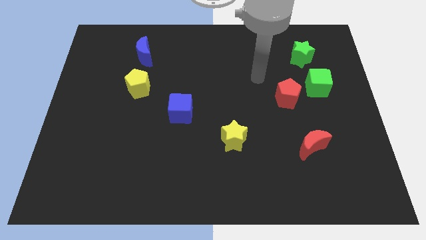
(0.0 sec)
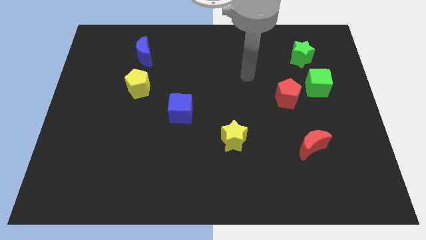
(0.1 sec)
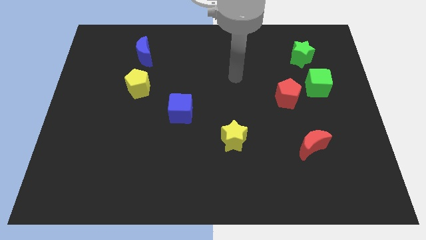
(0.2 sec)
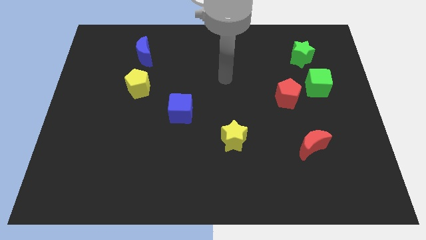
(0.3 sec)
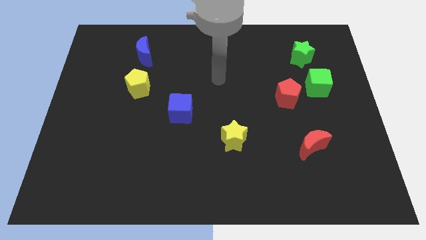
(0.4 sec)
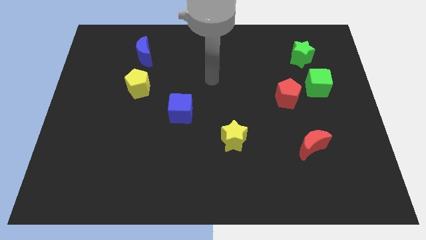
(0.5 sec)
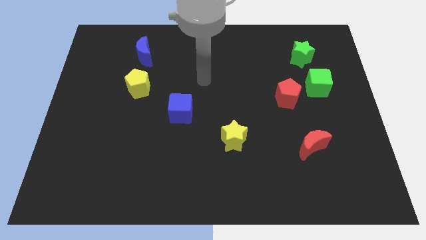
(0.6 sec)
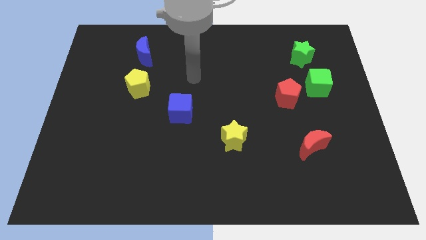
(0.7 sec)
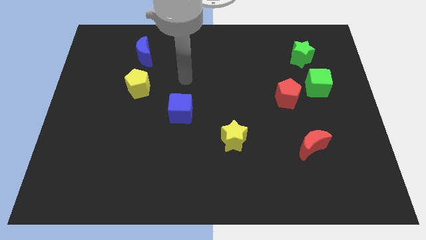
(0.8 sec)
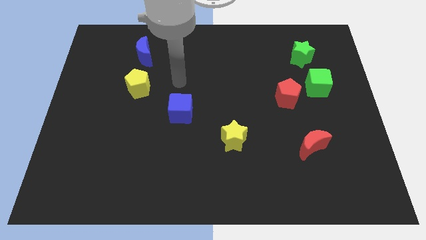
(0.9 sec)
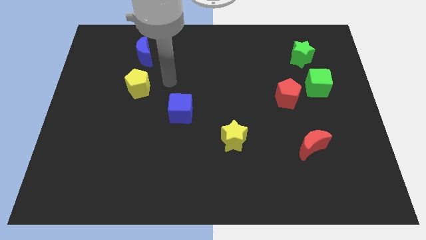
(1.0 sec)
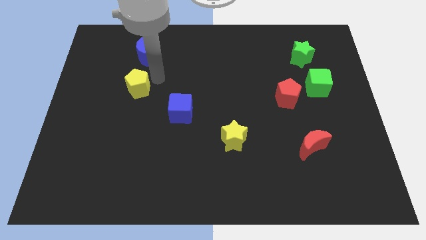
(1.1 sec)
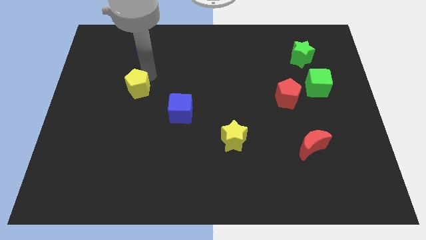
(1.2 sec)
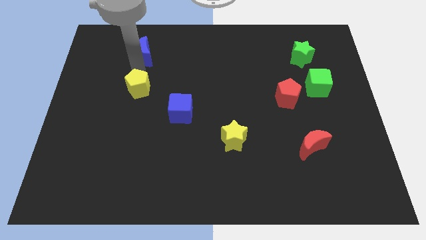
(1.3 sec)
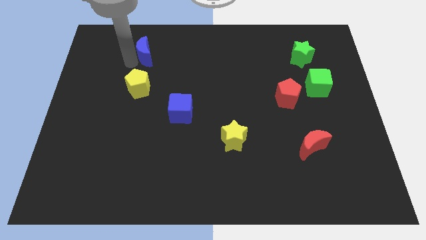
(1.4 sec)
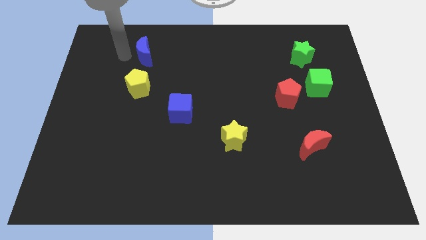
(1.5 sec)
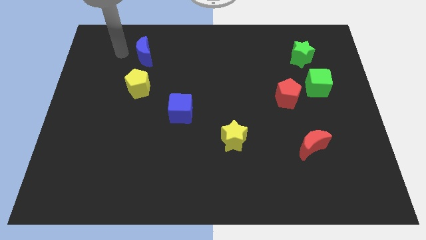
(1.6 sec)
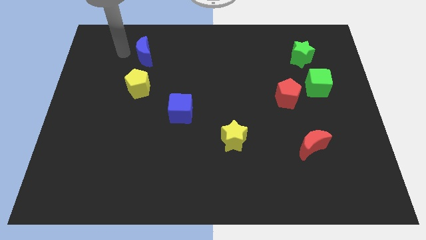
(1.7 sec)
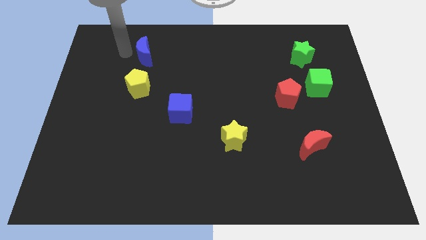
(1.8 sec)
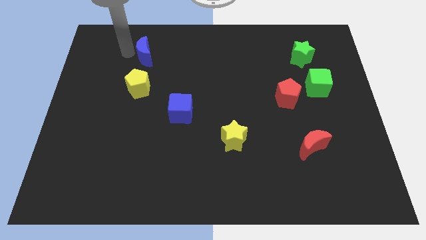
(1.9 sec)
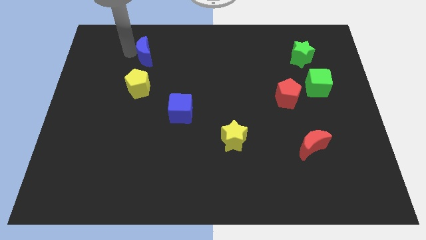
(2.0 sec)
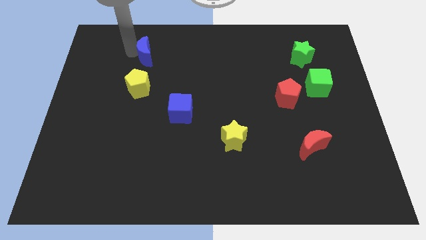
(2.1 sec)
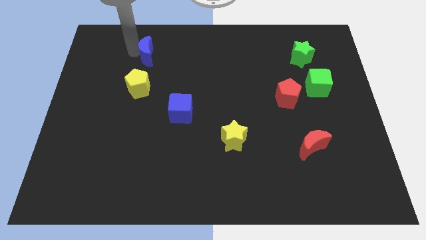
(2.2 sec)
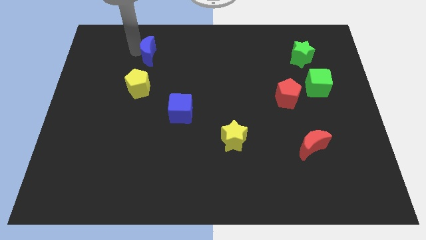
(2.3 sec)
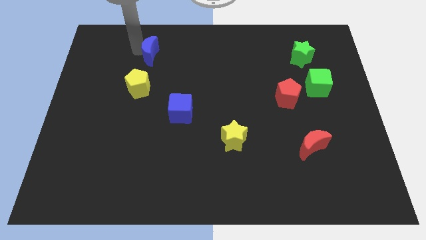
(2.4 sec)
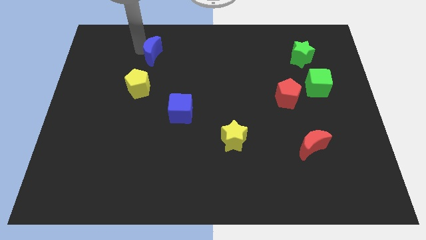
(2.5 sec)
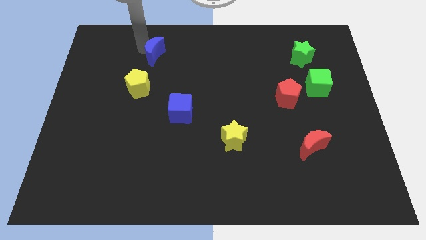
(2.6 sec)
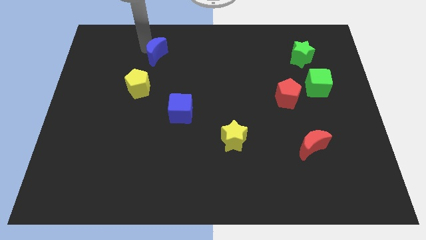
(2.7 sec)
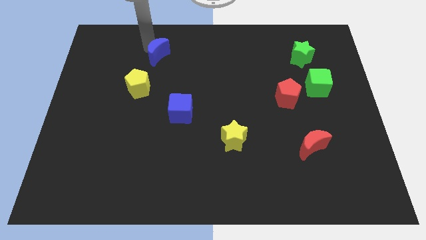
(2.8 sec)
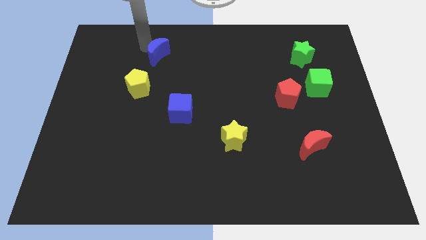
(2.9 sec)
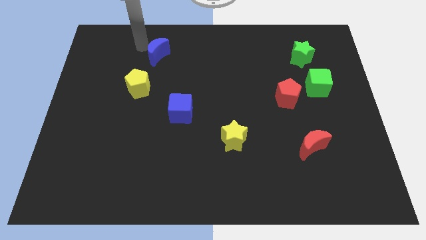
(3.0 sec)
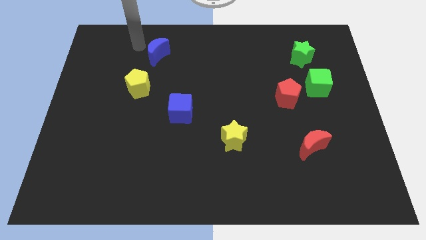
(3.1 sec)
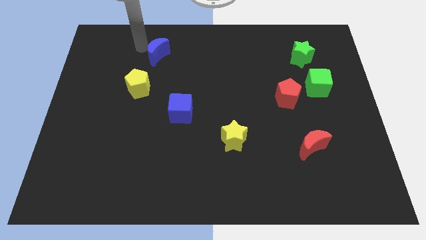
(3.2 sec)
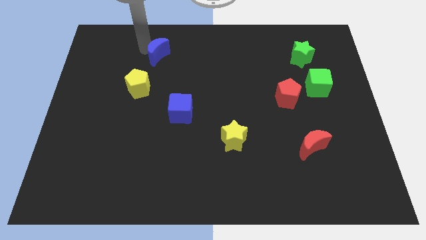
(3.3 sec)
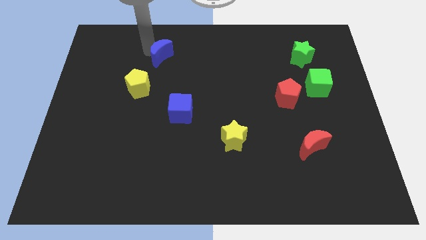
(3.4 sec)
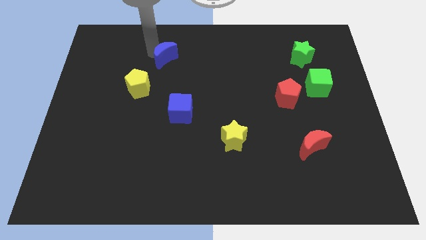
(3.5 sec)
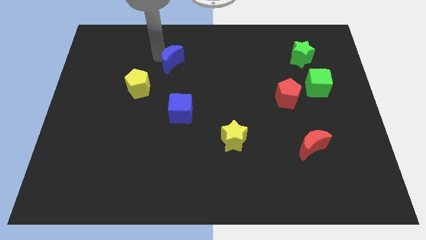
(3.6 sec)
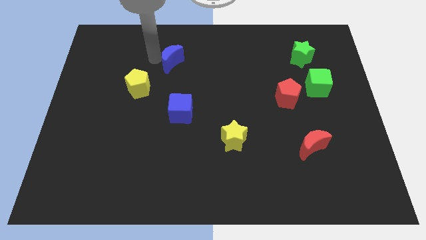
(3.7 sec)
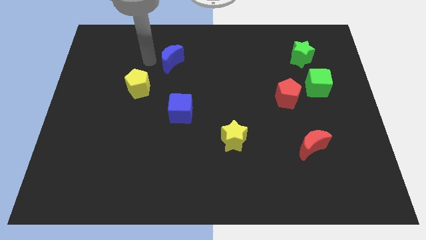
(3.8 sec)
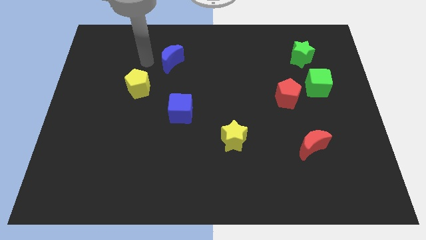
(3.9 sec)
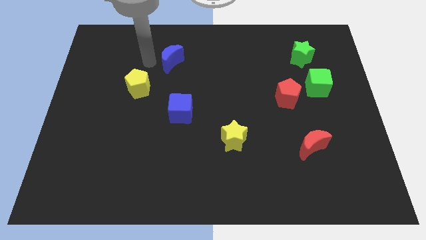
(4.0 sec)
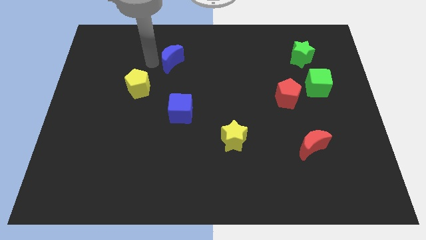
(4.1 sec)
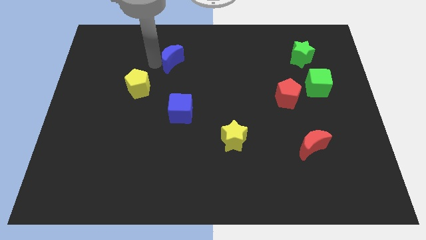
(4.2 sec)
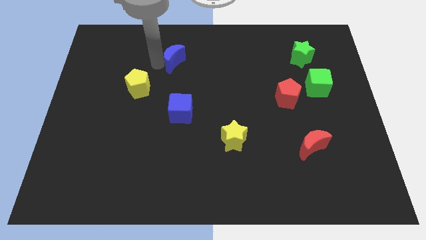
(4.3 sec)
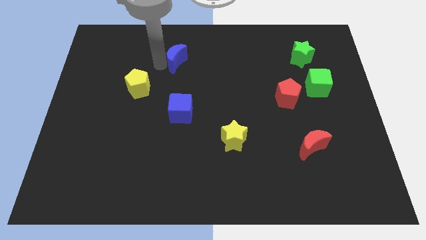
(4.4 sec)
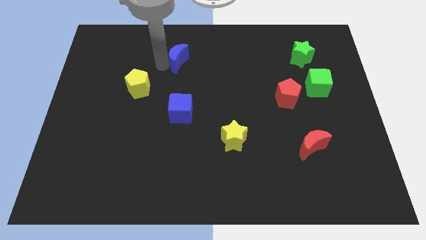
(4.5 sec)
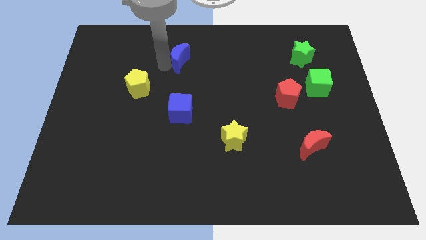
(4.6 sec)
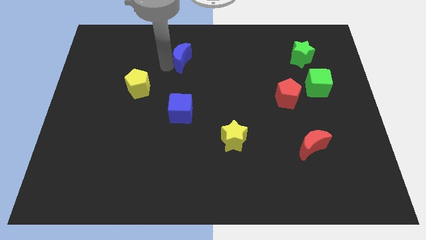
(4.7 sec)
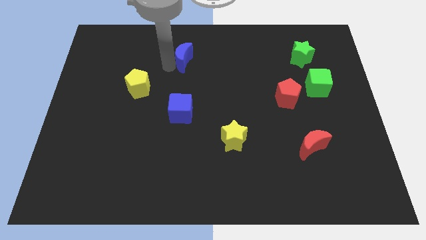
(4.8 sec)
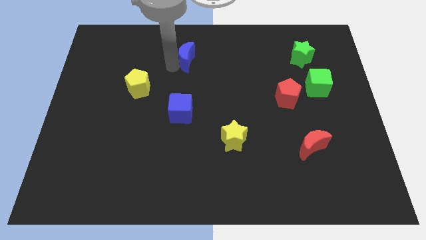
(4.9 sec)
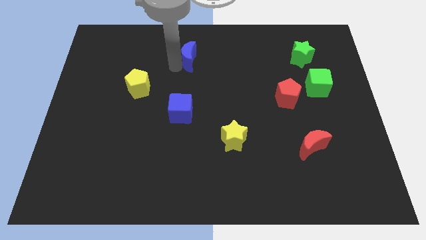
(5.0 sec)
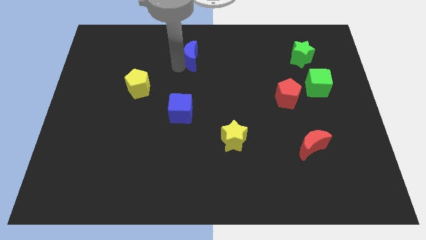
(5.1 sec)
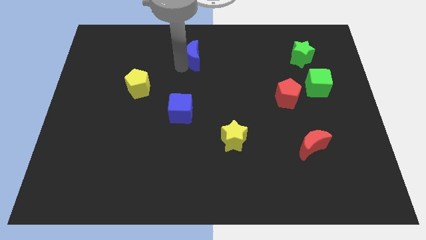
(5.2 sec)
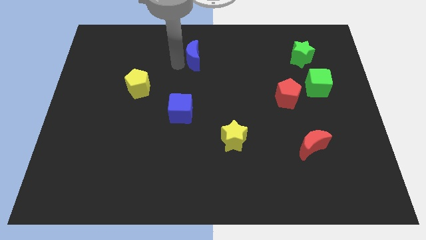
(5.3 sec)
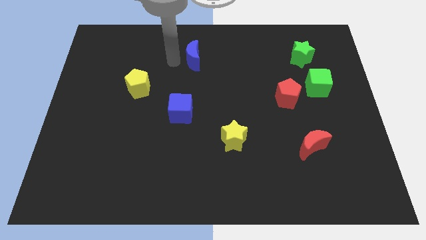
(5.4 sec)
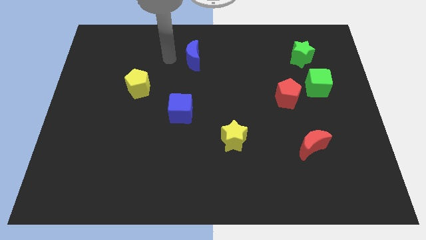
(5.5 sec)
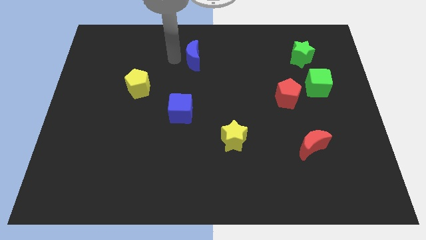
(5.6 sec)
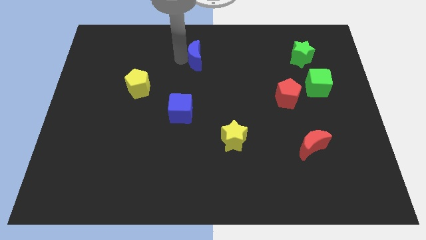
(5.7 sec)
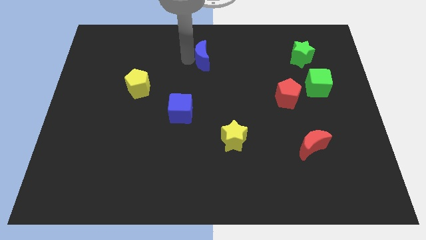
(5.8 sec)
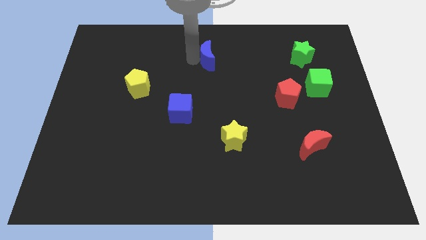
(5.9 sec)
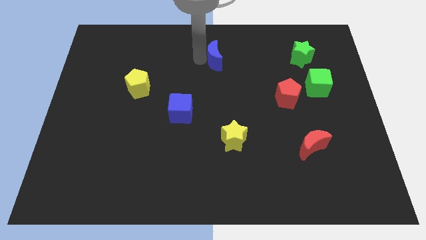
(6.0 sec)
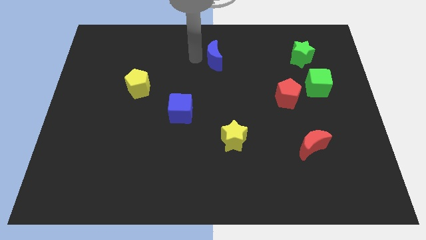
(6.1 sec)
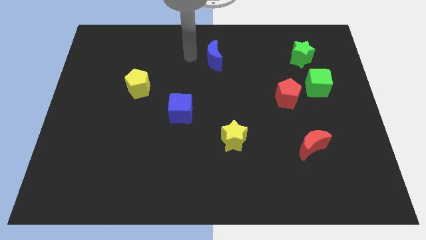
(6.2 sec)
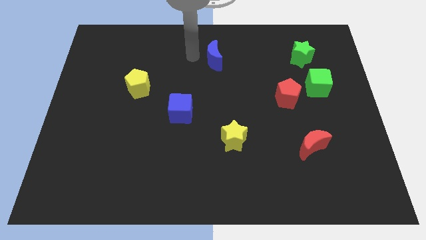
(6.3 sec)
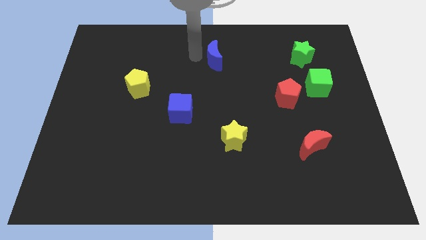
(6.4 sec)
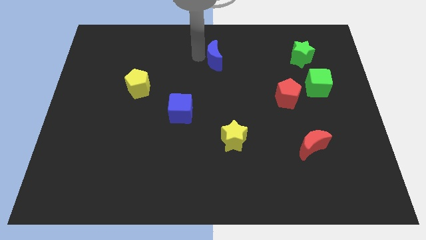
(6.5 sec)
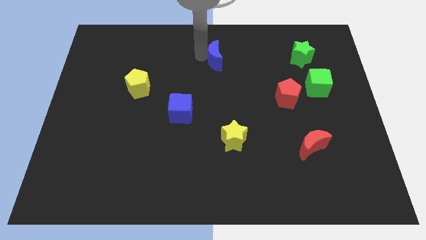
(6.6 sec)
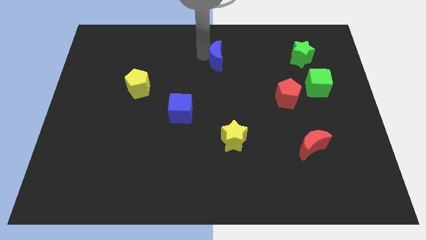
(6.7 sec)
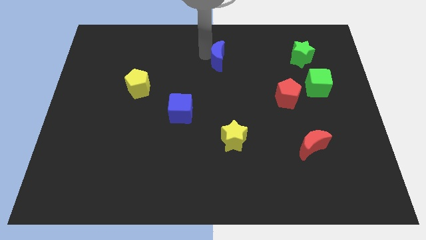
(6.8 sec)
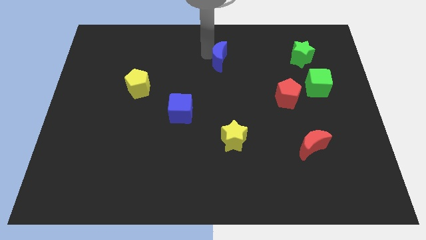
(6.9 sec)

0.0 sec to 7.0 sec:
slide the blue moon right

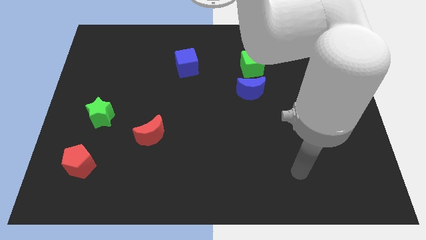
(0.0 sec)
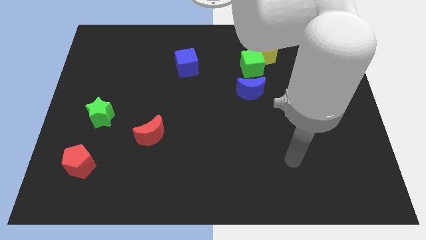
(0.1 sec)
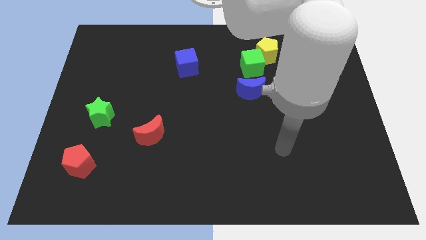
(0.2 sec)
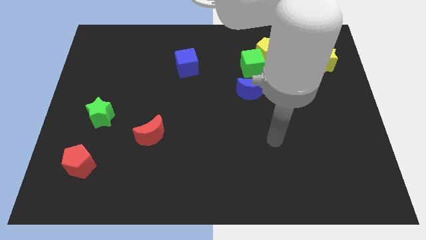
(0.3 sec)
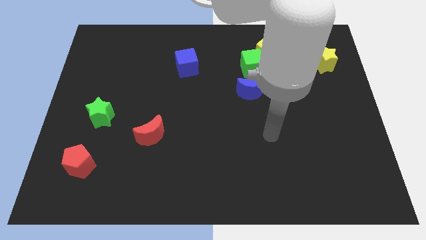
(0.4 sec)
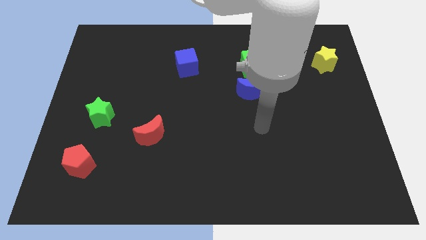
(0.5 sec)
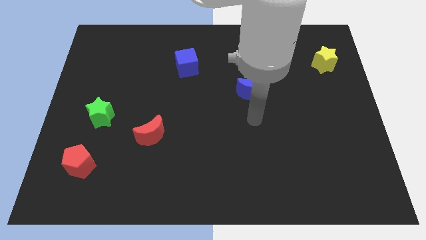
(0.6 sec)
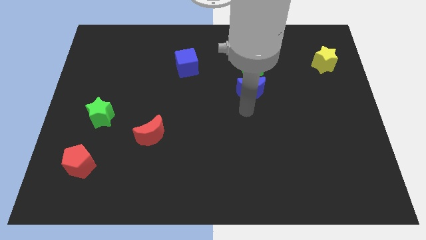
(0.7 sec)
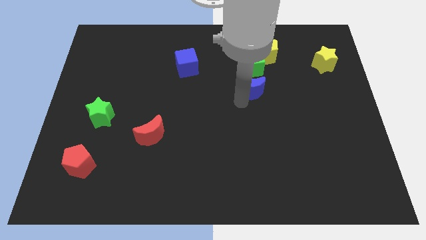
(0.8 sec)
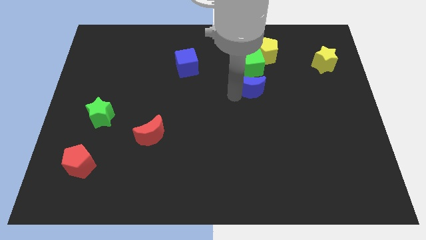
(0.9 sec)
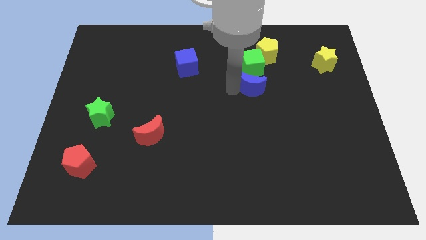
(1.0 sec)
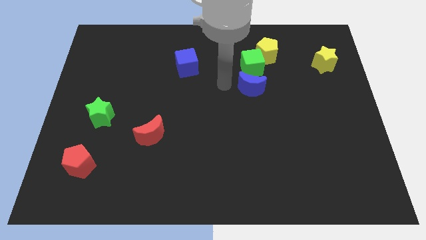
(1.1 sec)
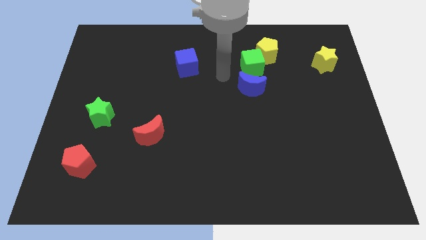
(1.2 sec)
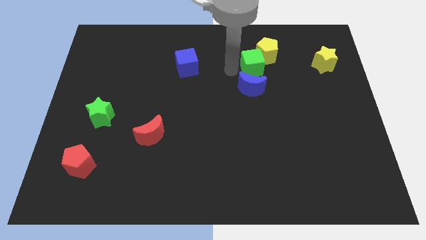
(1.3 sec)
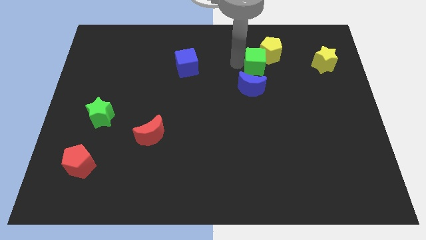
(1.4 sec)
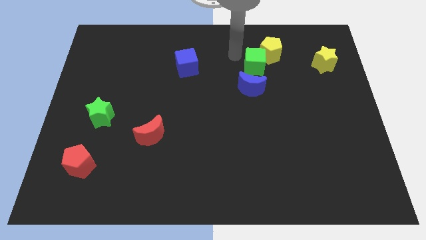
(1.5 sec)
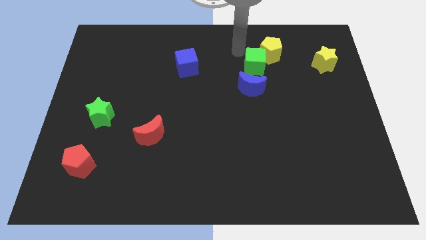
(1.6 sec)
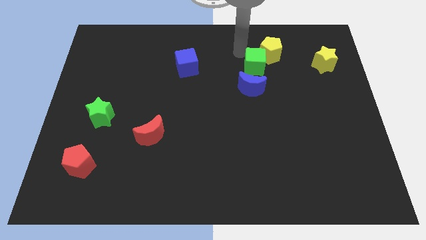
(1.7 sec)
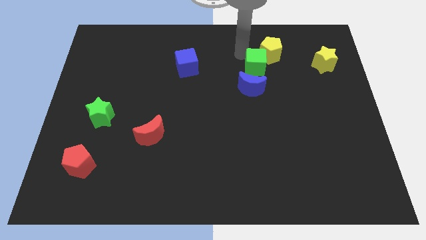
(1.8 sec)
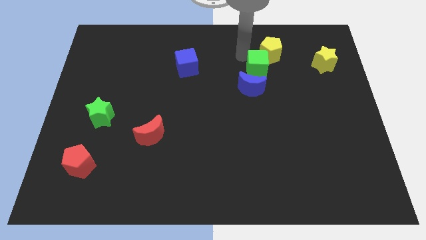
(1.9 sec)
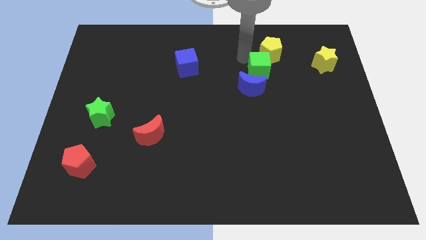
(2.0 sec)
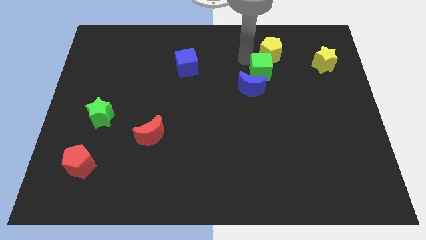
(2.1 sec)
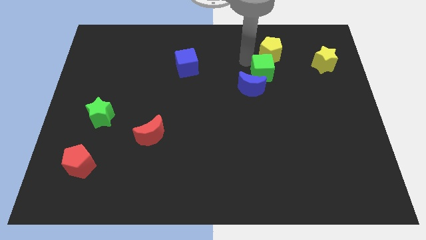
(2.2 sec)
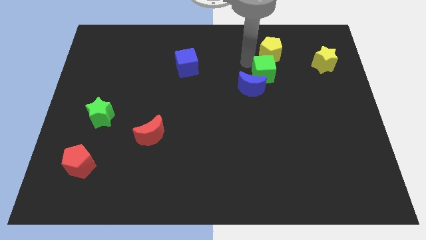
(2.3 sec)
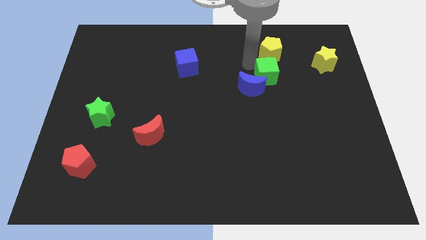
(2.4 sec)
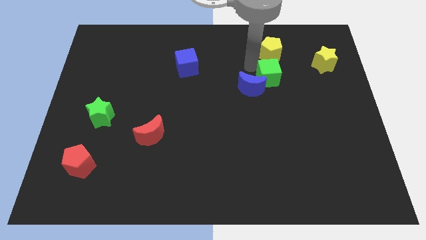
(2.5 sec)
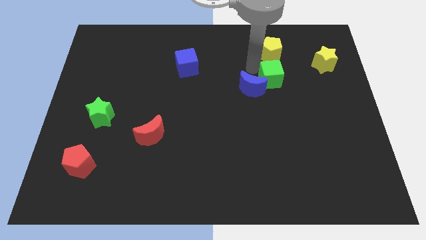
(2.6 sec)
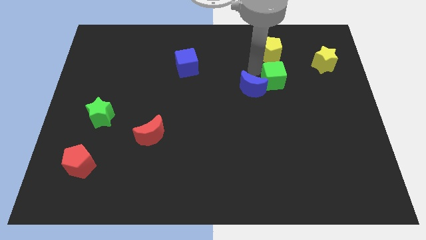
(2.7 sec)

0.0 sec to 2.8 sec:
slide the green cube somewhat down and right diagonally
